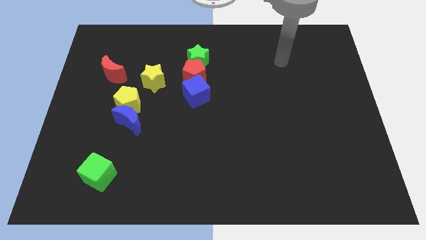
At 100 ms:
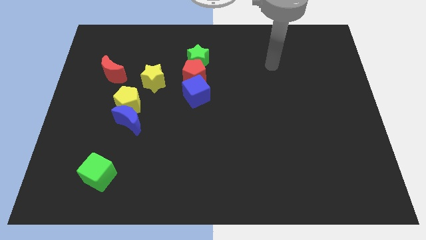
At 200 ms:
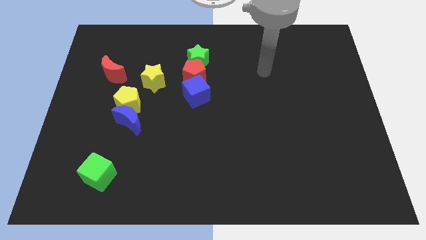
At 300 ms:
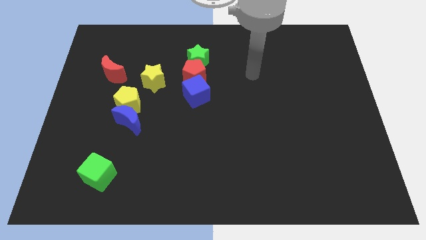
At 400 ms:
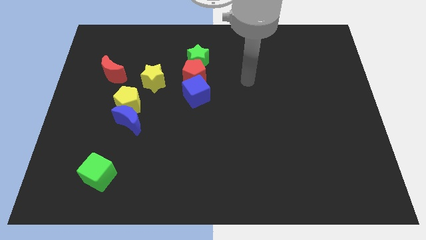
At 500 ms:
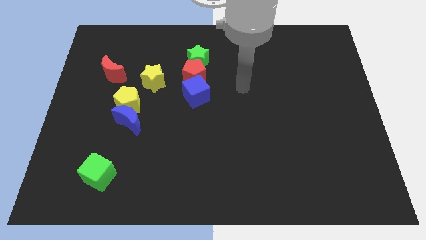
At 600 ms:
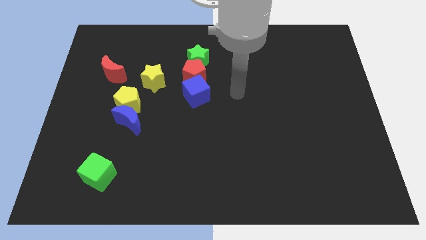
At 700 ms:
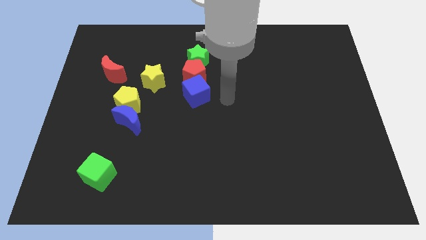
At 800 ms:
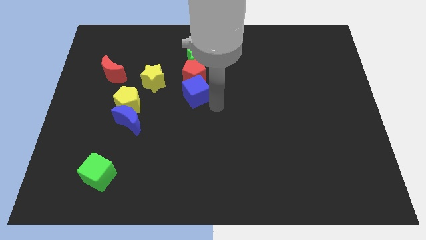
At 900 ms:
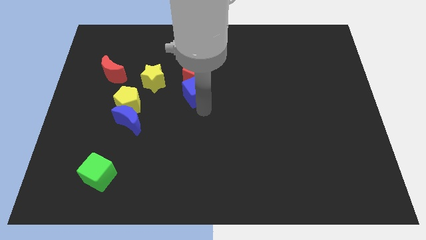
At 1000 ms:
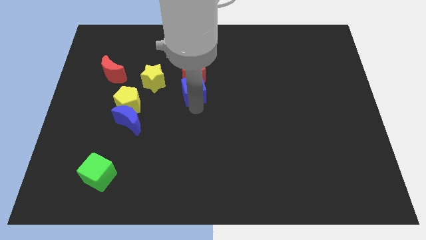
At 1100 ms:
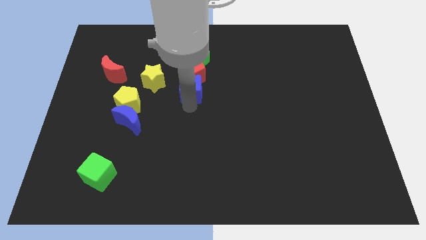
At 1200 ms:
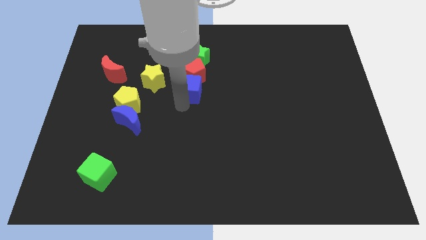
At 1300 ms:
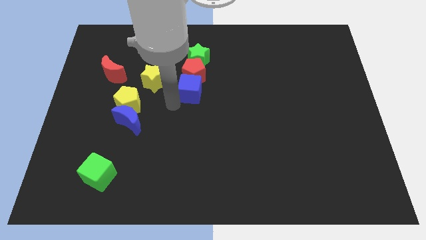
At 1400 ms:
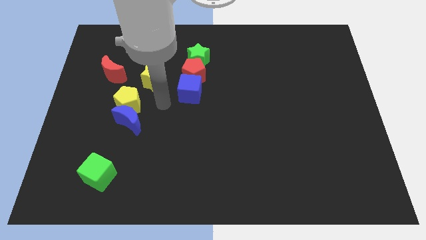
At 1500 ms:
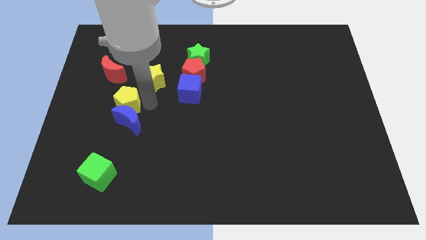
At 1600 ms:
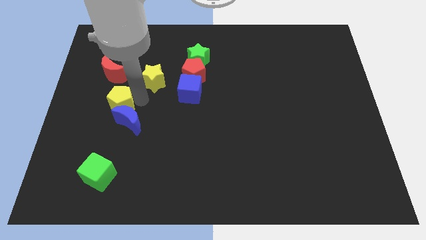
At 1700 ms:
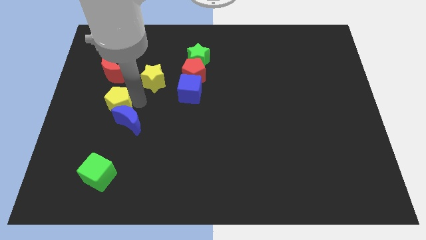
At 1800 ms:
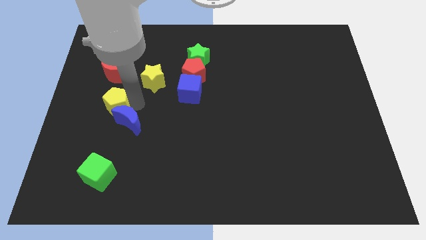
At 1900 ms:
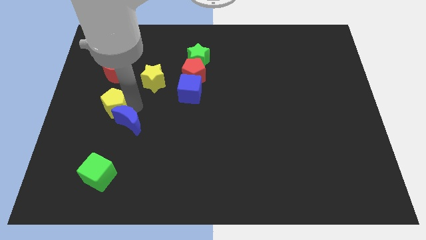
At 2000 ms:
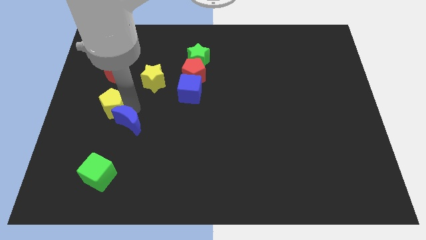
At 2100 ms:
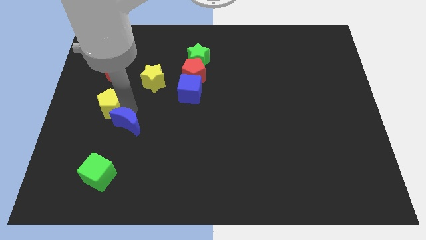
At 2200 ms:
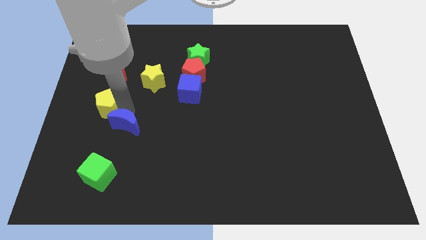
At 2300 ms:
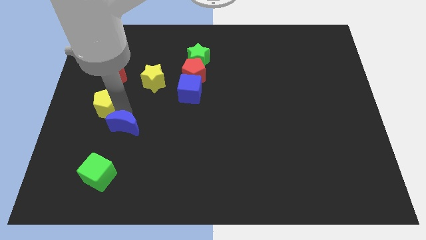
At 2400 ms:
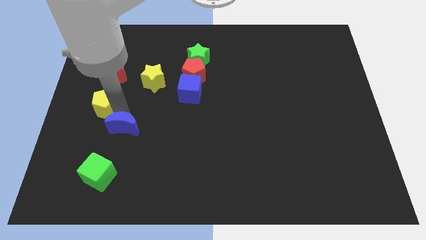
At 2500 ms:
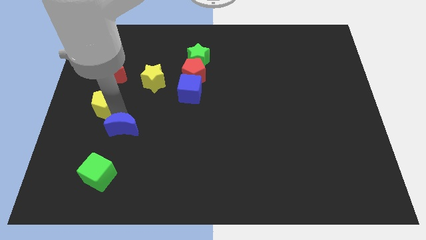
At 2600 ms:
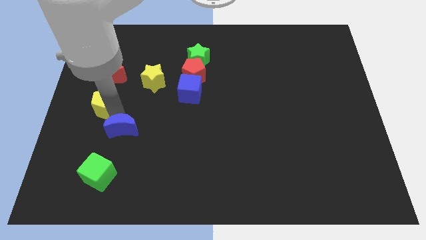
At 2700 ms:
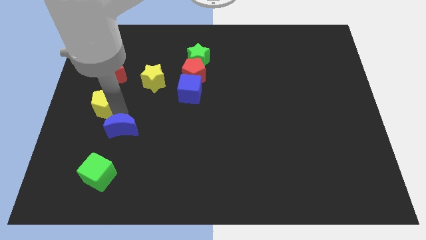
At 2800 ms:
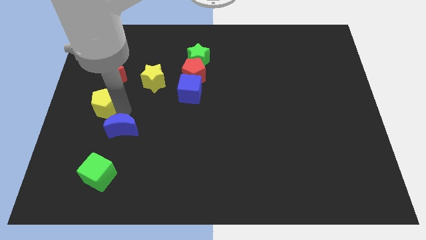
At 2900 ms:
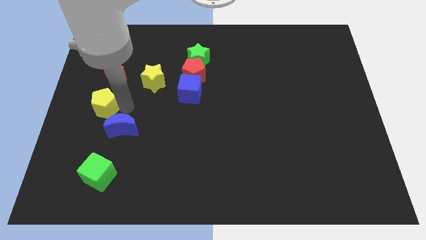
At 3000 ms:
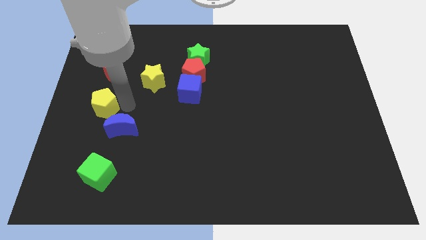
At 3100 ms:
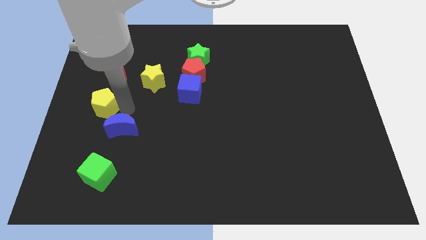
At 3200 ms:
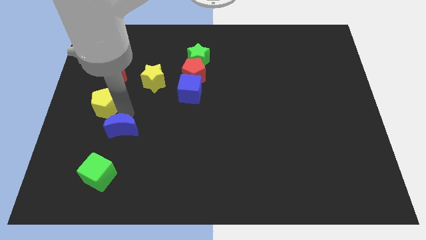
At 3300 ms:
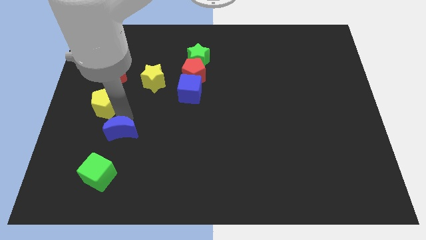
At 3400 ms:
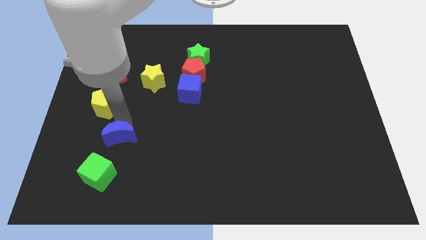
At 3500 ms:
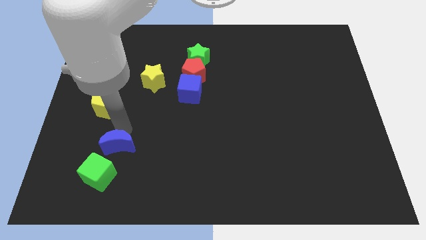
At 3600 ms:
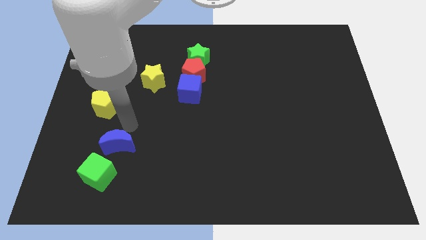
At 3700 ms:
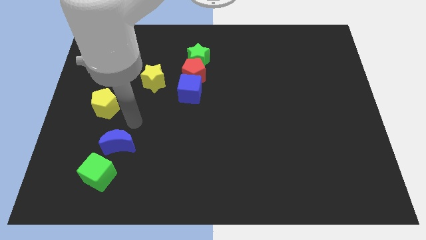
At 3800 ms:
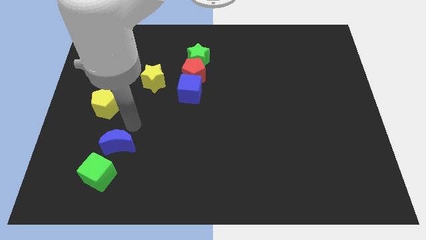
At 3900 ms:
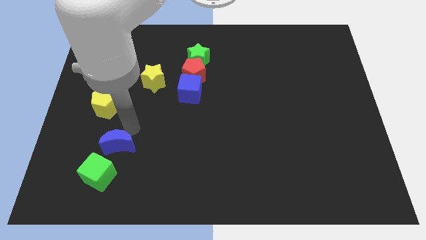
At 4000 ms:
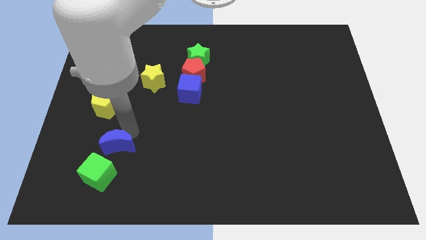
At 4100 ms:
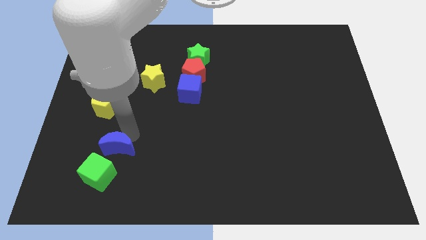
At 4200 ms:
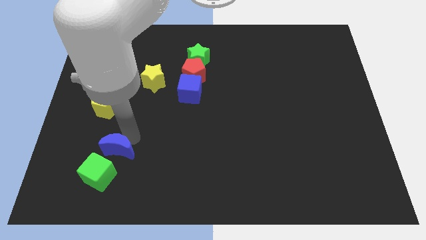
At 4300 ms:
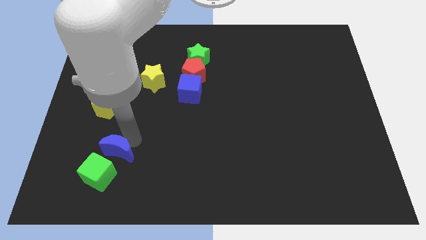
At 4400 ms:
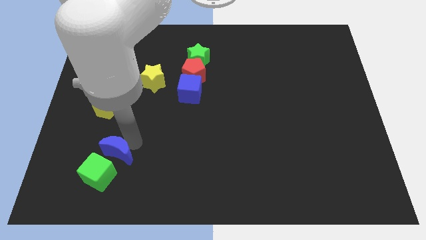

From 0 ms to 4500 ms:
put the blue moon next to the green cube

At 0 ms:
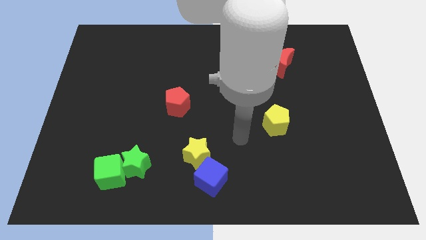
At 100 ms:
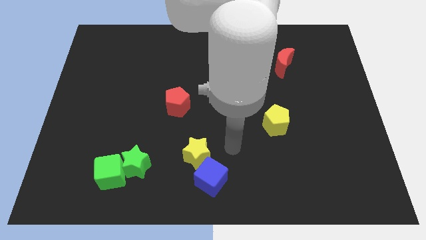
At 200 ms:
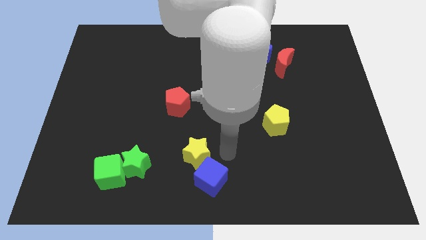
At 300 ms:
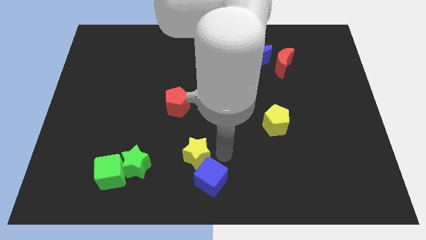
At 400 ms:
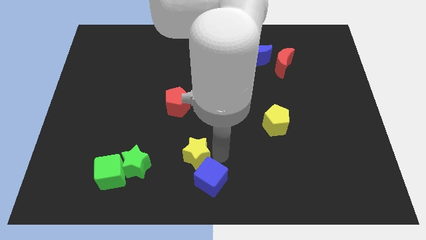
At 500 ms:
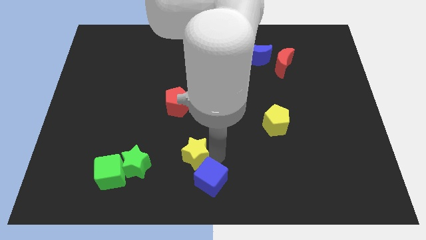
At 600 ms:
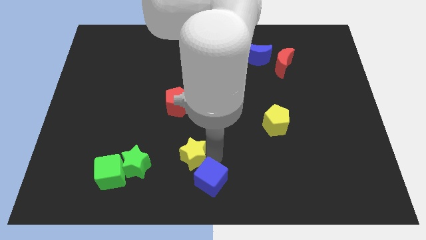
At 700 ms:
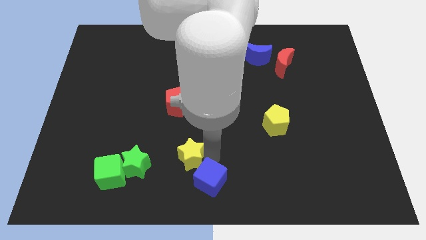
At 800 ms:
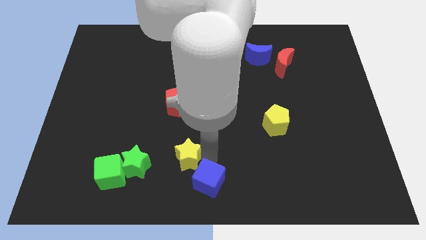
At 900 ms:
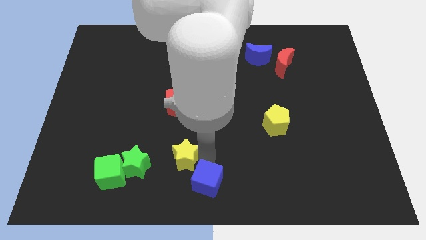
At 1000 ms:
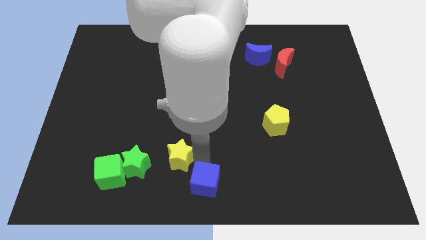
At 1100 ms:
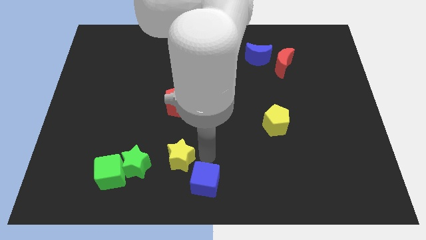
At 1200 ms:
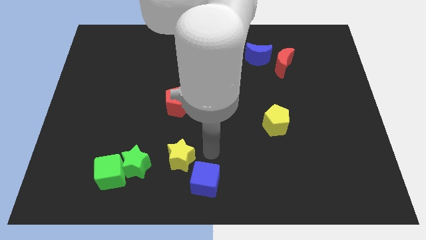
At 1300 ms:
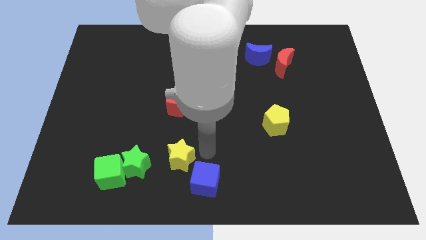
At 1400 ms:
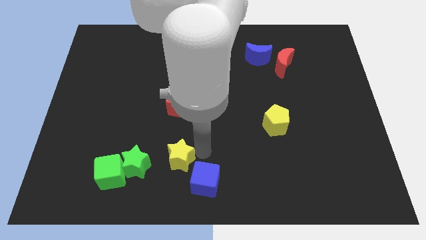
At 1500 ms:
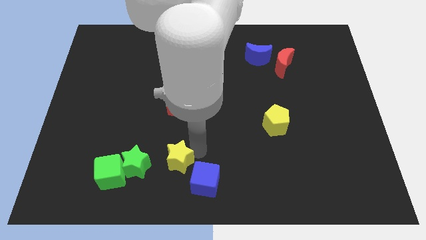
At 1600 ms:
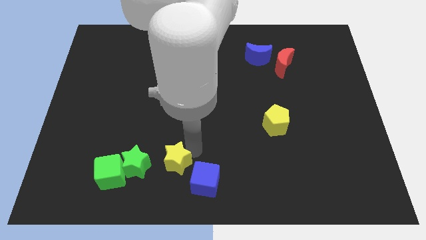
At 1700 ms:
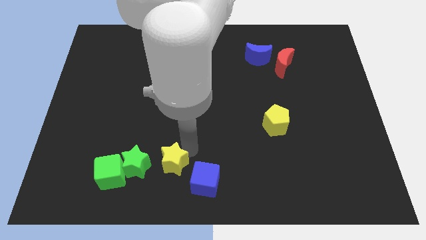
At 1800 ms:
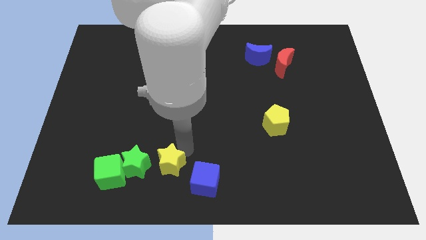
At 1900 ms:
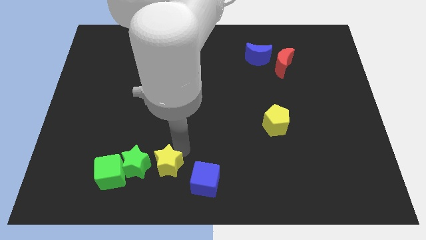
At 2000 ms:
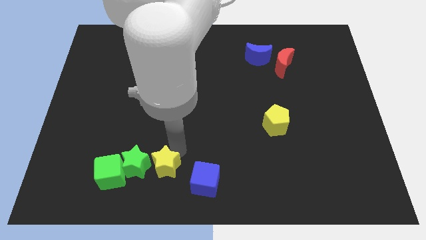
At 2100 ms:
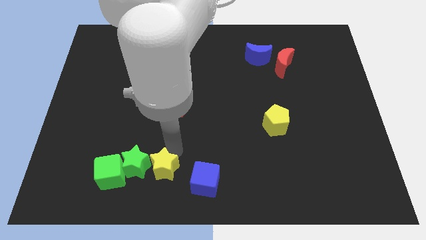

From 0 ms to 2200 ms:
put the yellow star next to the green star

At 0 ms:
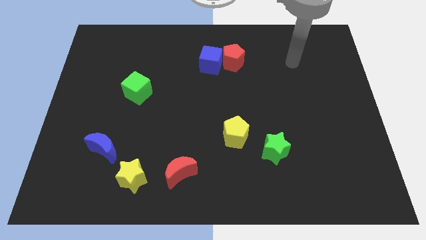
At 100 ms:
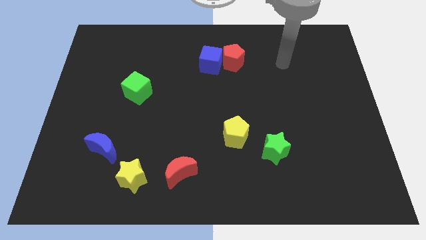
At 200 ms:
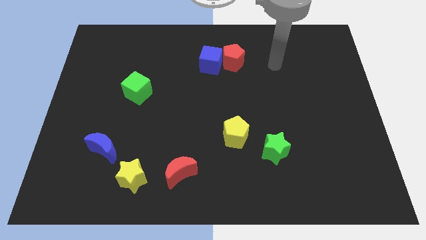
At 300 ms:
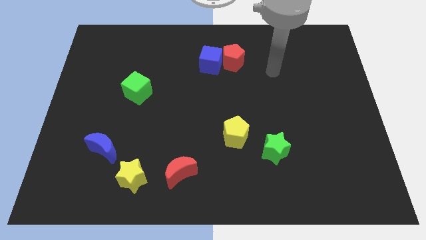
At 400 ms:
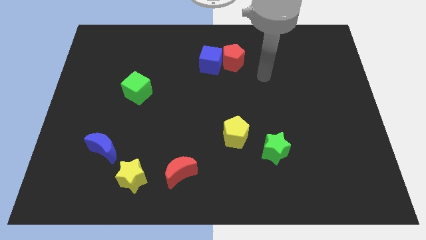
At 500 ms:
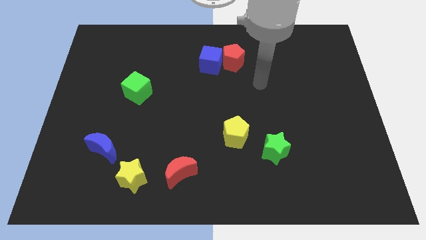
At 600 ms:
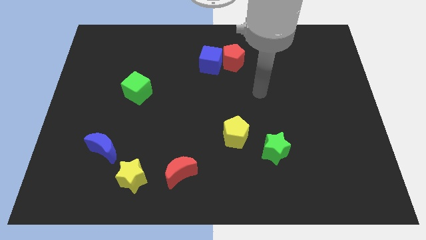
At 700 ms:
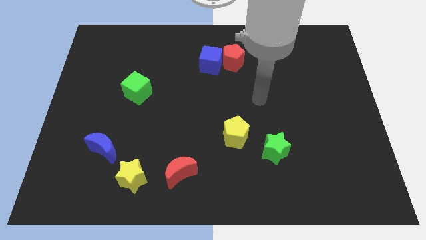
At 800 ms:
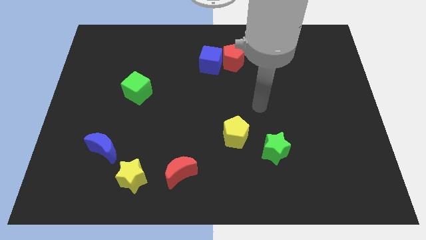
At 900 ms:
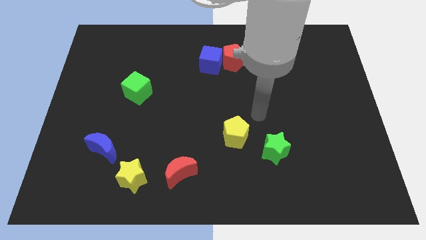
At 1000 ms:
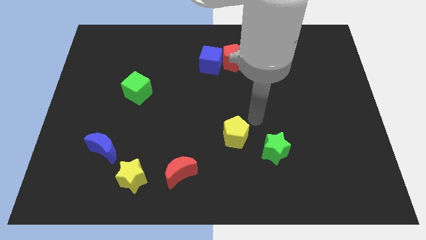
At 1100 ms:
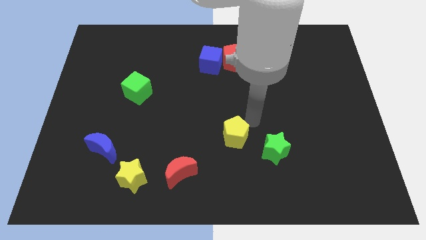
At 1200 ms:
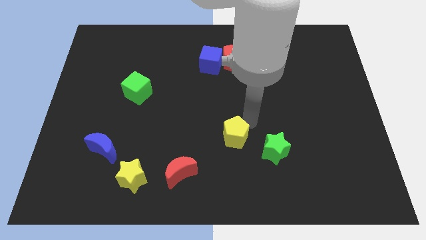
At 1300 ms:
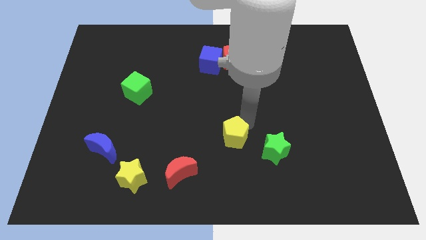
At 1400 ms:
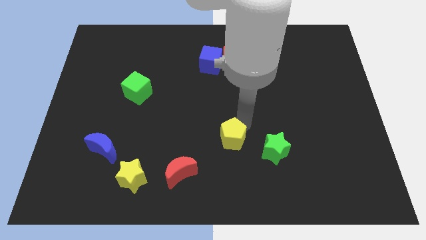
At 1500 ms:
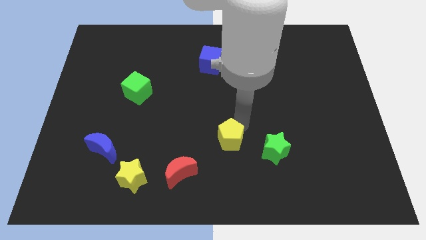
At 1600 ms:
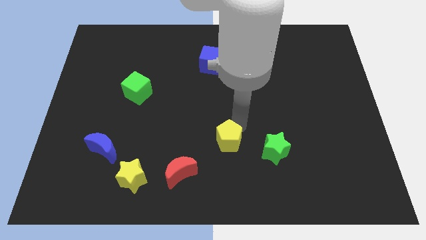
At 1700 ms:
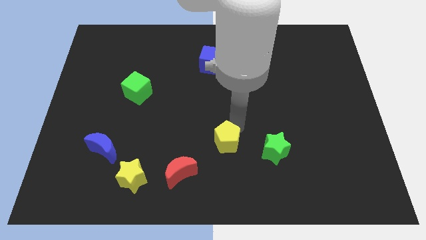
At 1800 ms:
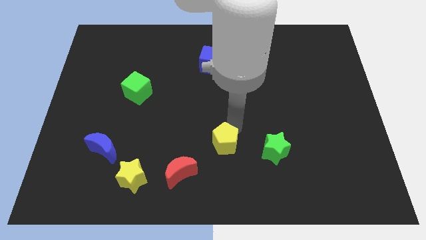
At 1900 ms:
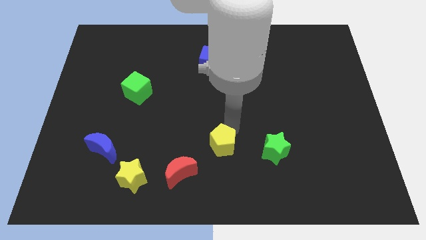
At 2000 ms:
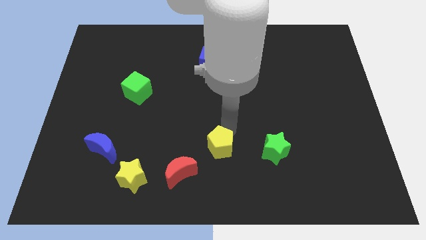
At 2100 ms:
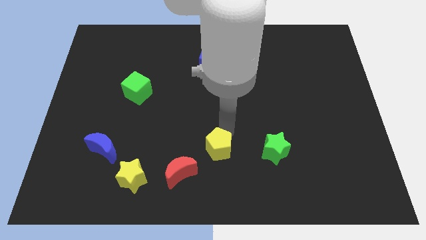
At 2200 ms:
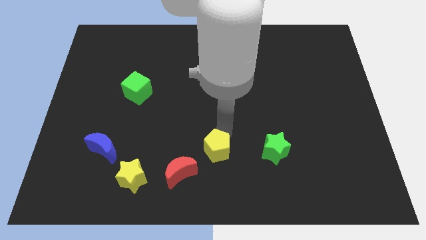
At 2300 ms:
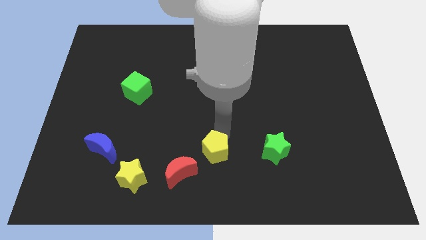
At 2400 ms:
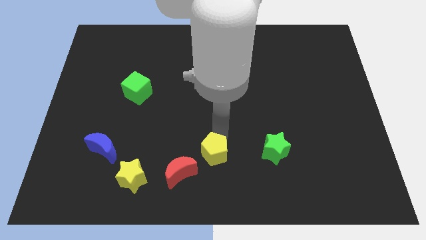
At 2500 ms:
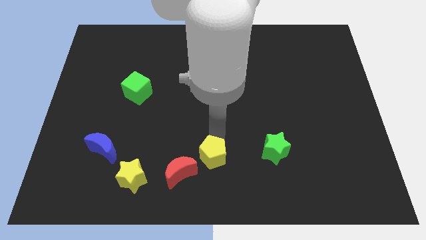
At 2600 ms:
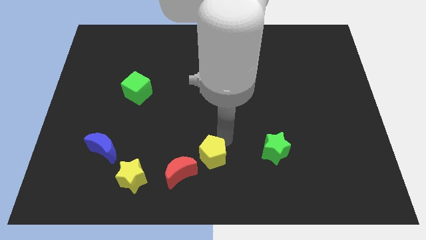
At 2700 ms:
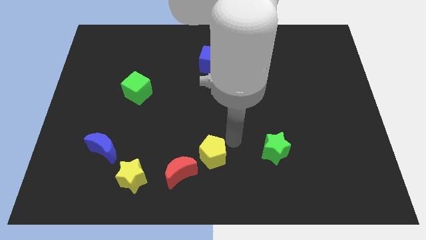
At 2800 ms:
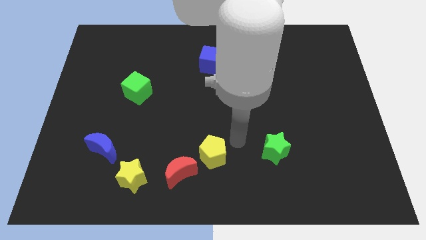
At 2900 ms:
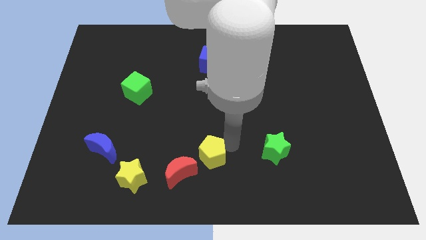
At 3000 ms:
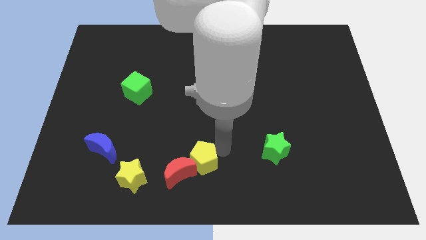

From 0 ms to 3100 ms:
slide the yellow pentagon to the red moon
